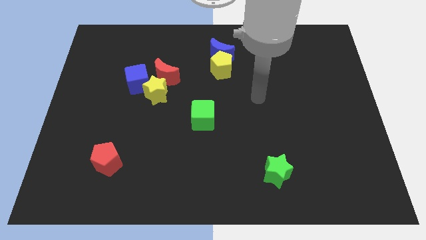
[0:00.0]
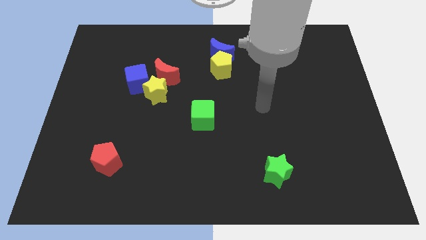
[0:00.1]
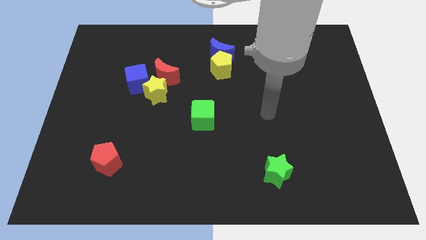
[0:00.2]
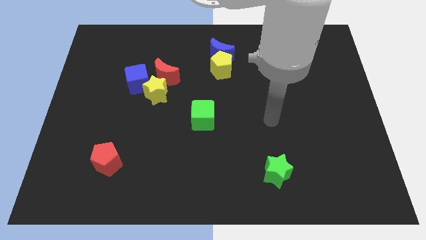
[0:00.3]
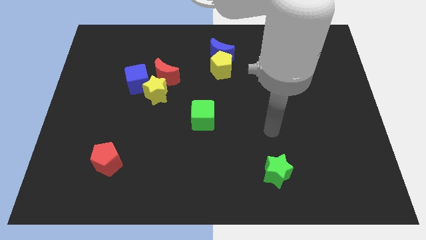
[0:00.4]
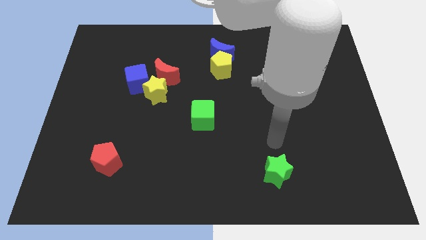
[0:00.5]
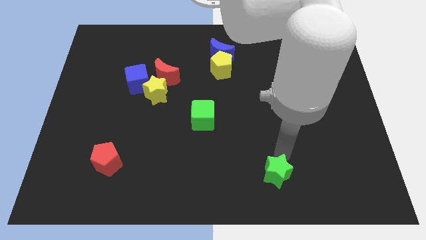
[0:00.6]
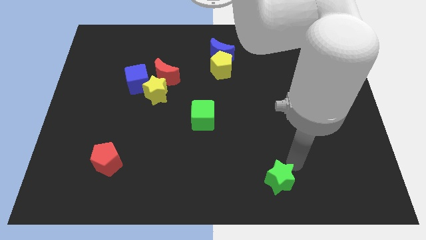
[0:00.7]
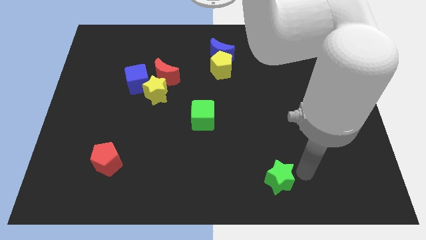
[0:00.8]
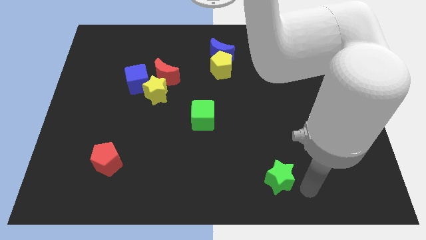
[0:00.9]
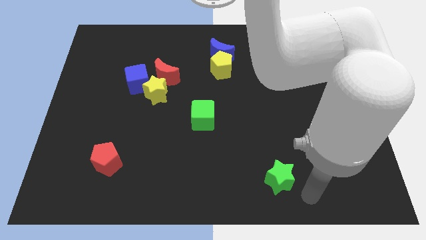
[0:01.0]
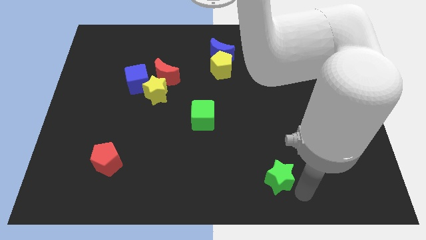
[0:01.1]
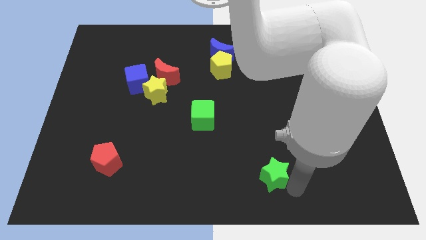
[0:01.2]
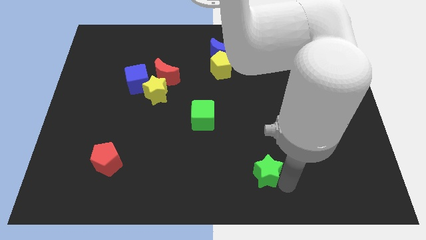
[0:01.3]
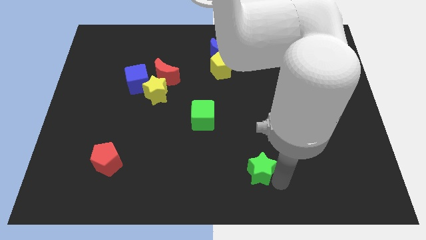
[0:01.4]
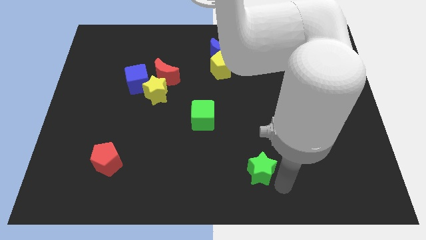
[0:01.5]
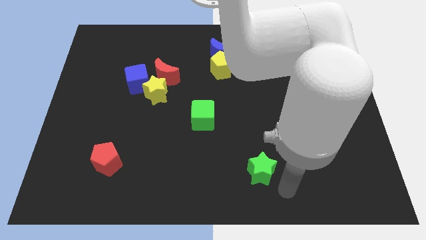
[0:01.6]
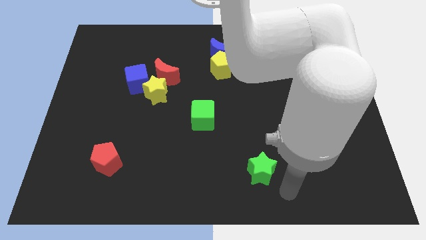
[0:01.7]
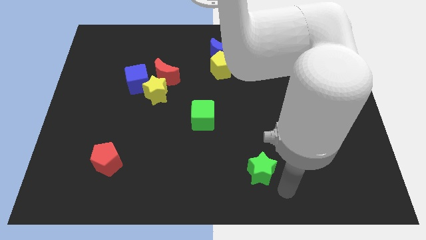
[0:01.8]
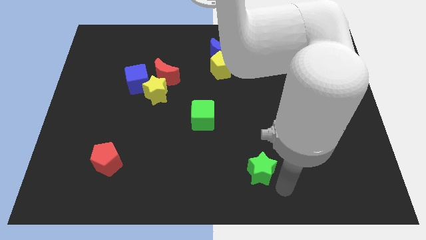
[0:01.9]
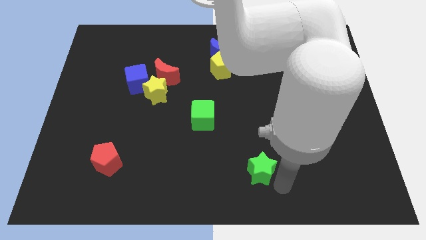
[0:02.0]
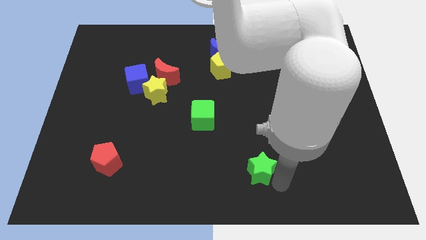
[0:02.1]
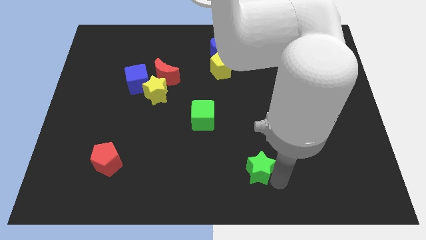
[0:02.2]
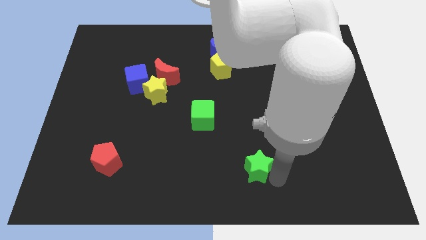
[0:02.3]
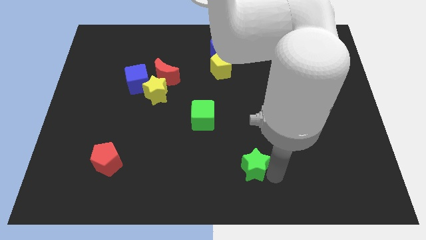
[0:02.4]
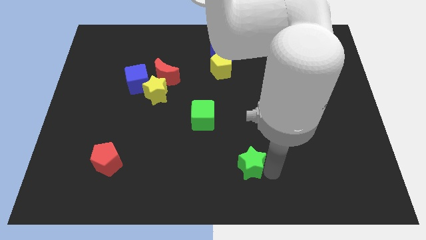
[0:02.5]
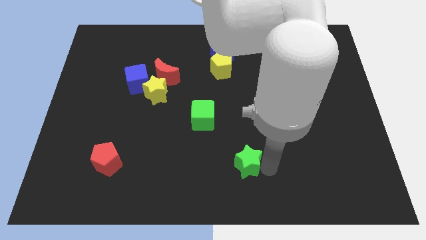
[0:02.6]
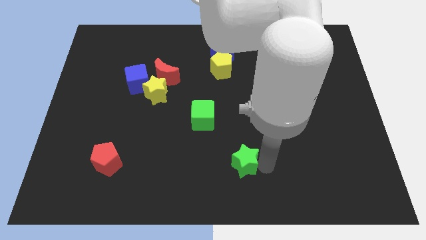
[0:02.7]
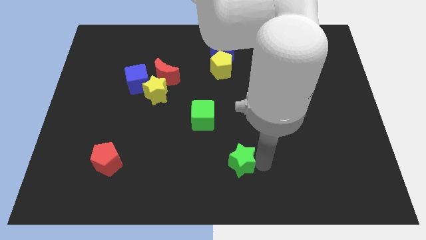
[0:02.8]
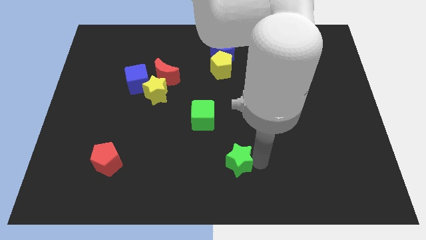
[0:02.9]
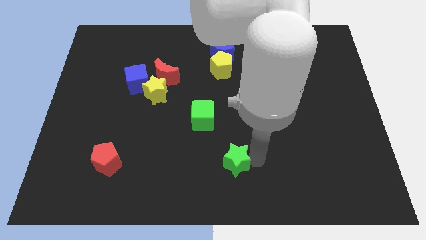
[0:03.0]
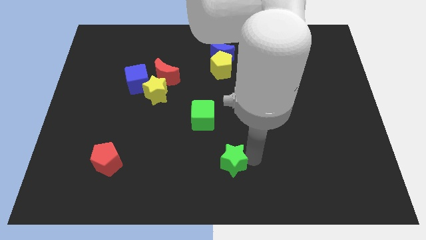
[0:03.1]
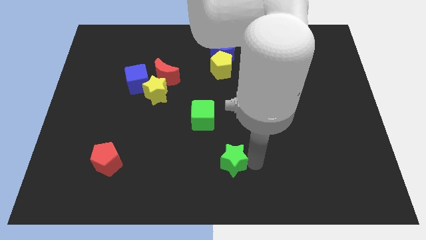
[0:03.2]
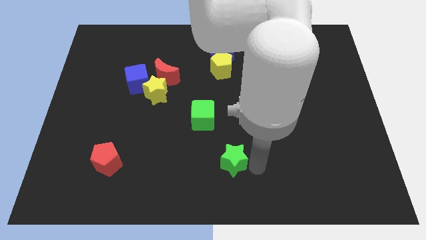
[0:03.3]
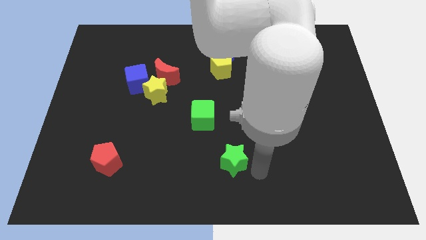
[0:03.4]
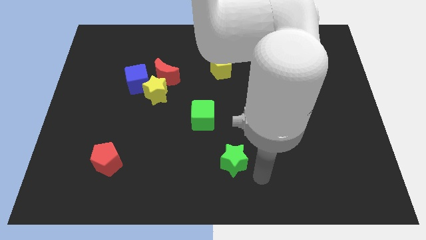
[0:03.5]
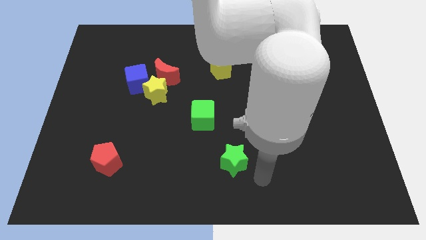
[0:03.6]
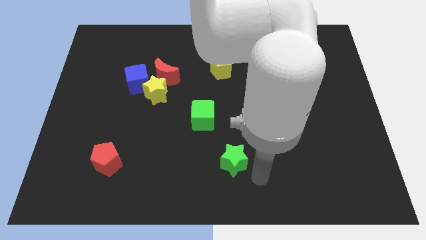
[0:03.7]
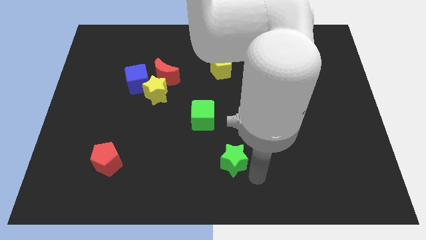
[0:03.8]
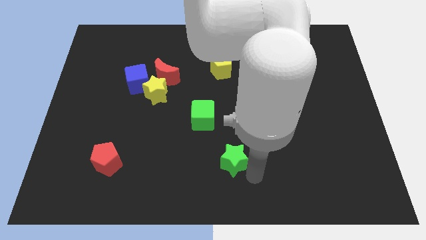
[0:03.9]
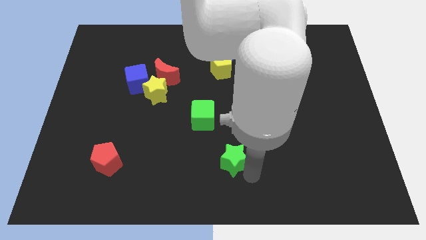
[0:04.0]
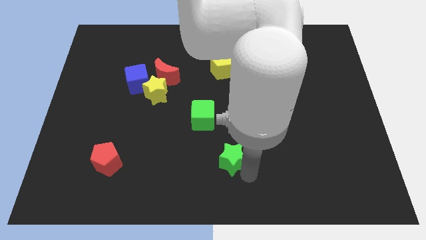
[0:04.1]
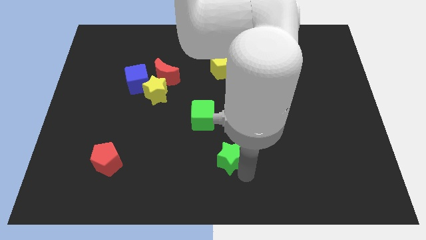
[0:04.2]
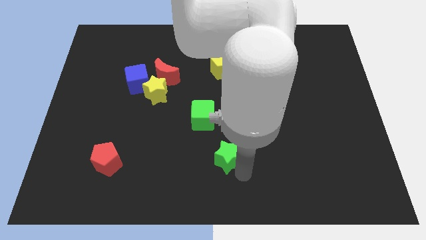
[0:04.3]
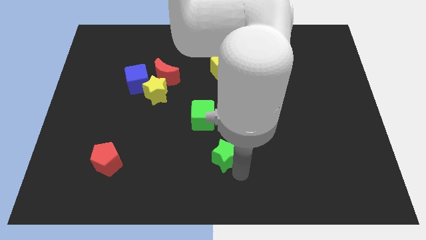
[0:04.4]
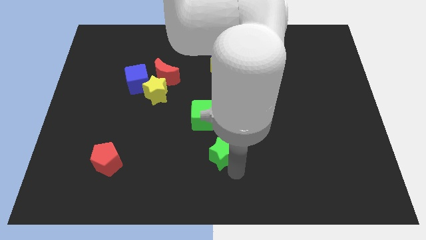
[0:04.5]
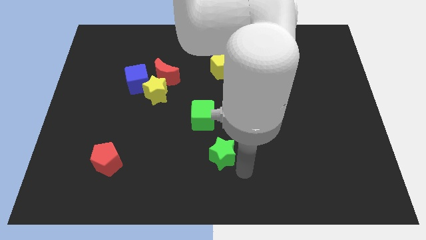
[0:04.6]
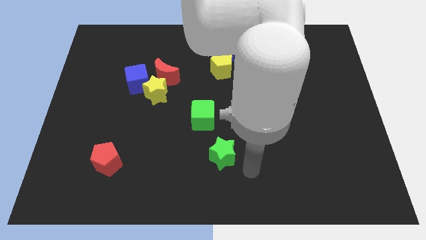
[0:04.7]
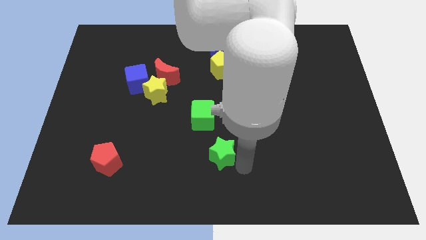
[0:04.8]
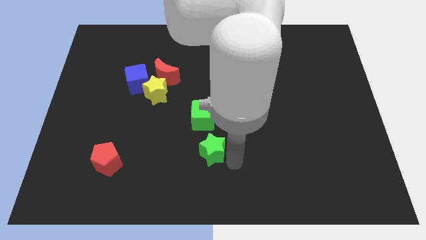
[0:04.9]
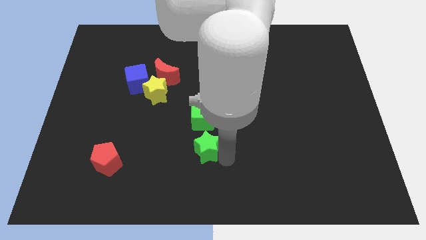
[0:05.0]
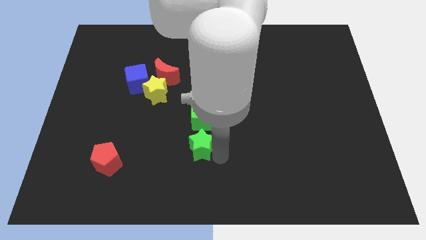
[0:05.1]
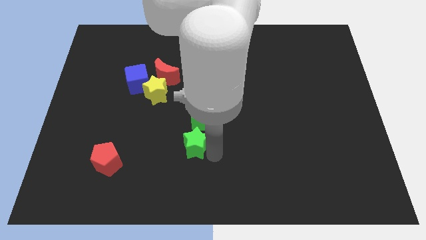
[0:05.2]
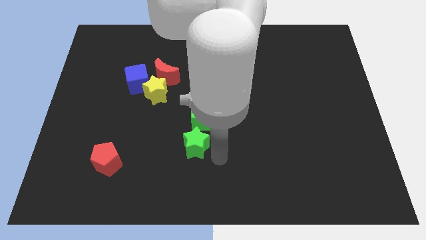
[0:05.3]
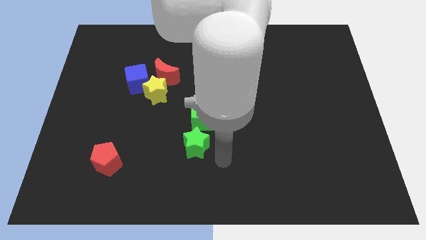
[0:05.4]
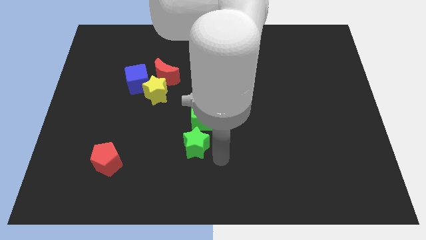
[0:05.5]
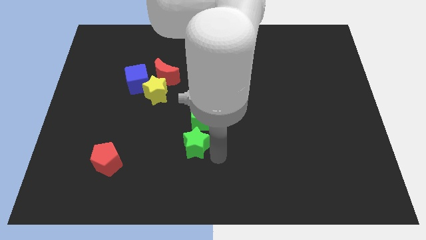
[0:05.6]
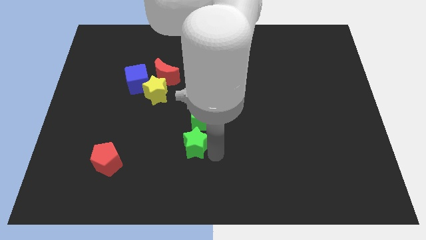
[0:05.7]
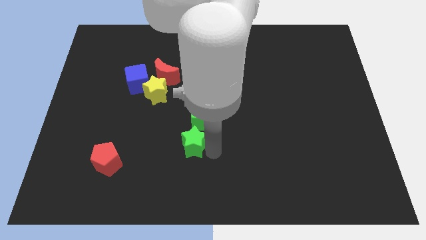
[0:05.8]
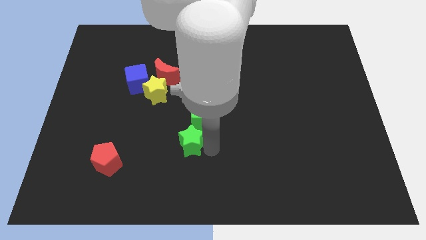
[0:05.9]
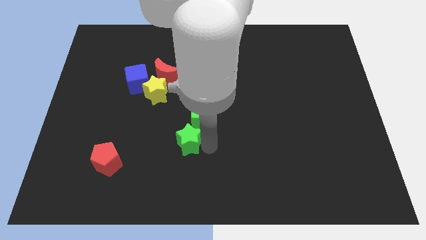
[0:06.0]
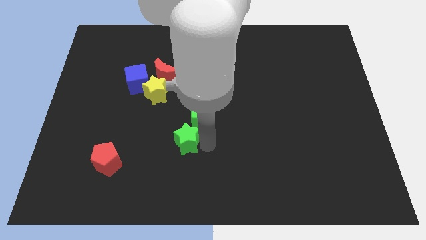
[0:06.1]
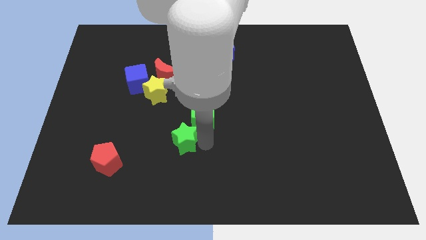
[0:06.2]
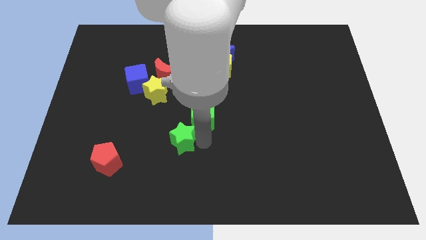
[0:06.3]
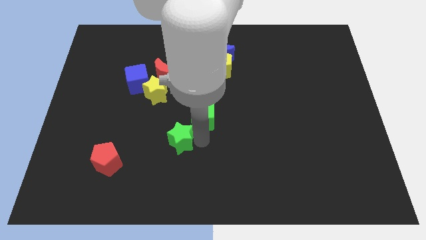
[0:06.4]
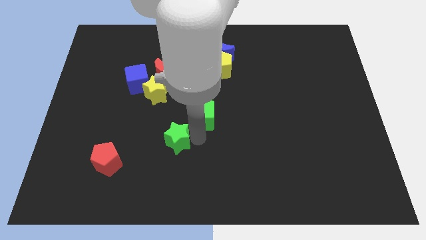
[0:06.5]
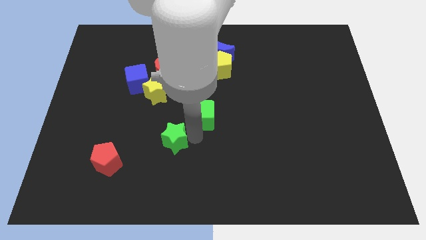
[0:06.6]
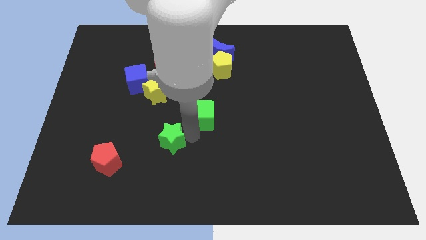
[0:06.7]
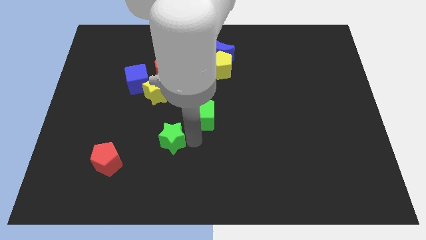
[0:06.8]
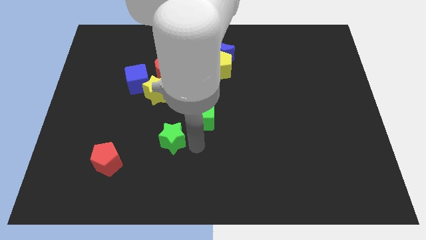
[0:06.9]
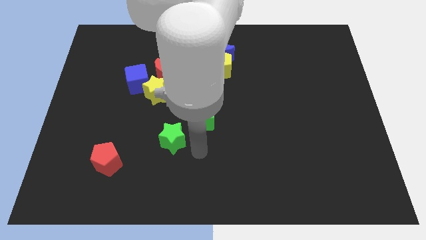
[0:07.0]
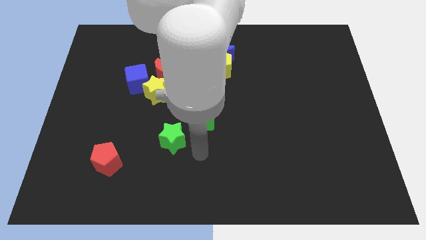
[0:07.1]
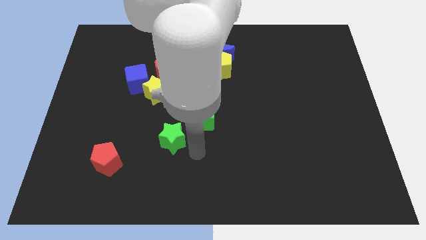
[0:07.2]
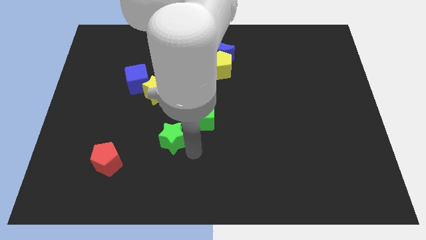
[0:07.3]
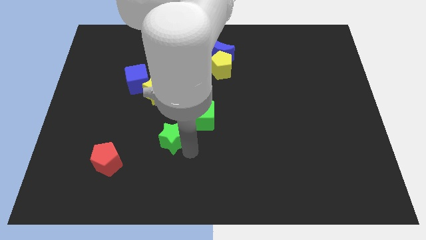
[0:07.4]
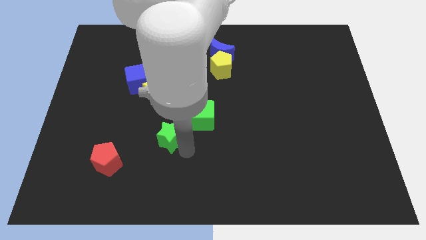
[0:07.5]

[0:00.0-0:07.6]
slide the green star to the bottom of the yellow star
